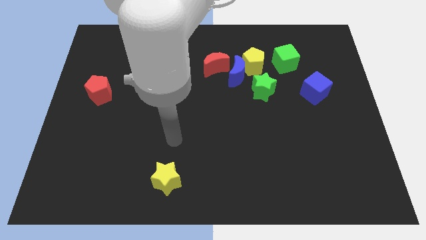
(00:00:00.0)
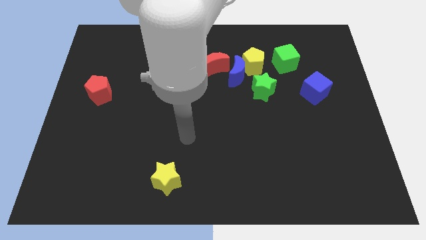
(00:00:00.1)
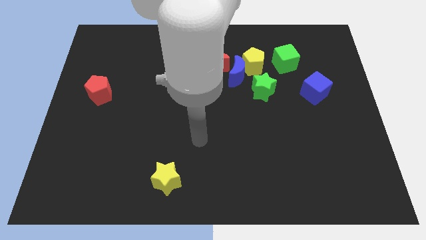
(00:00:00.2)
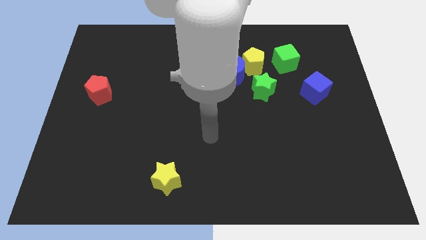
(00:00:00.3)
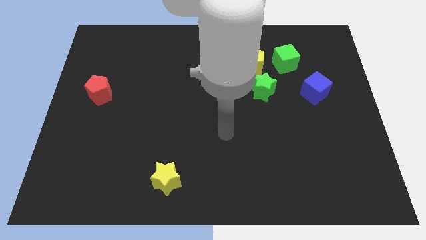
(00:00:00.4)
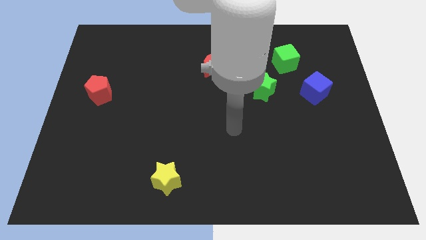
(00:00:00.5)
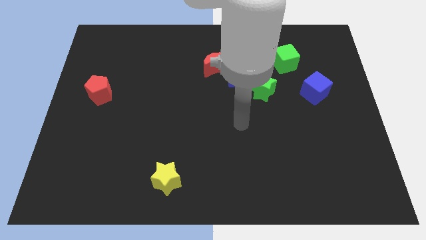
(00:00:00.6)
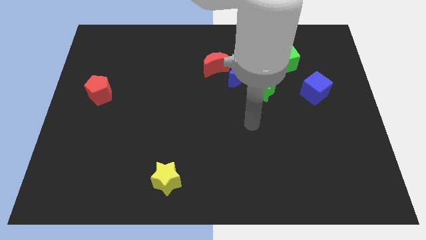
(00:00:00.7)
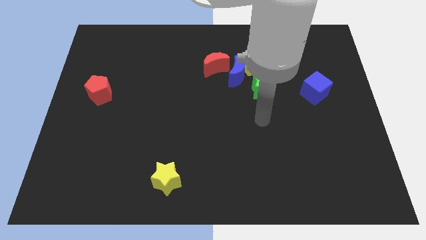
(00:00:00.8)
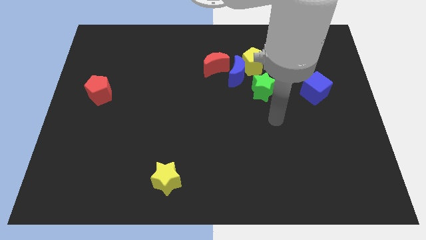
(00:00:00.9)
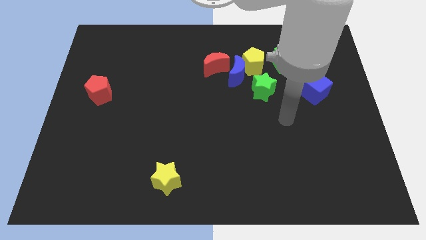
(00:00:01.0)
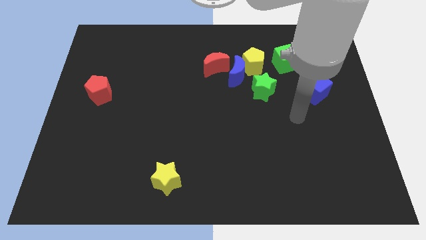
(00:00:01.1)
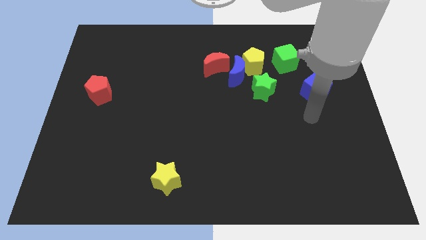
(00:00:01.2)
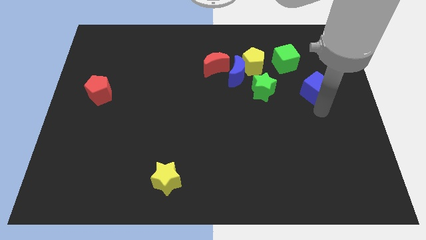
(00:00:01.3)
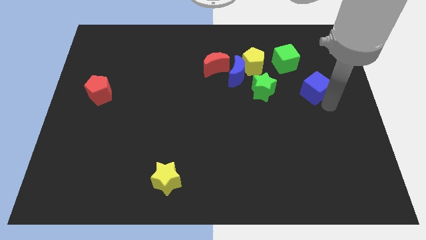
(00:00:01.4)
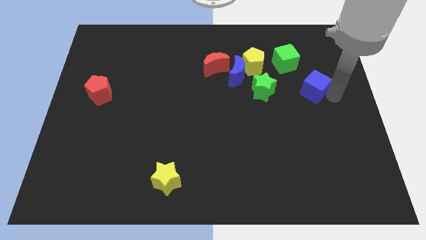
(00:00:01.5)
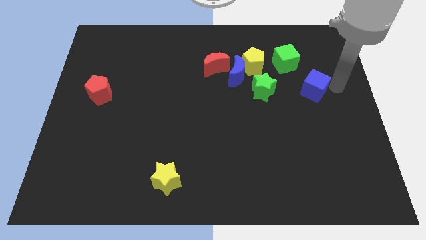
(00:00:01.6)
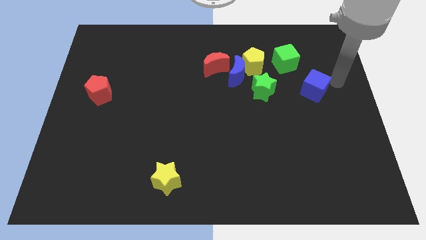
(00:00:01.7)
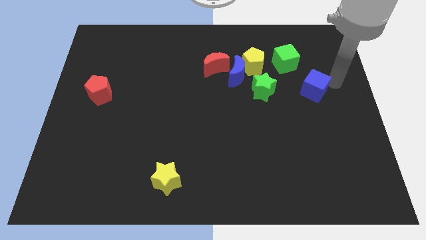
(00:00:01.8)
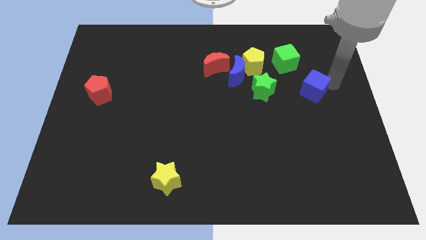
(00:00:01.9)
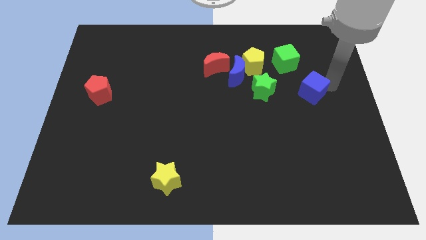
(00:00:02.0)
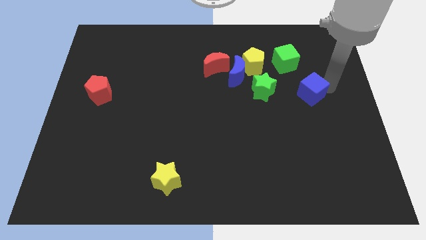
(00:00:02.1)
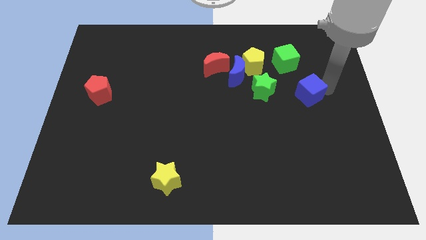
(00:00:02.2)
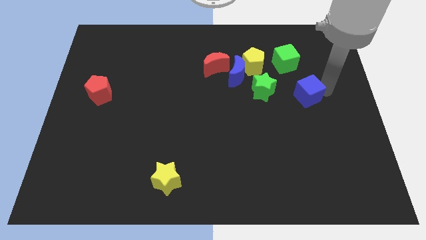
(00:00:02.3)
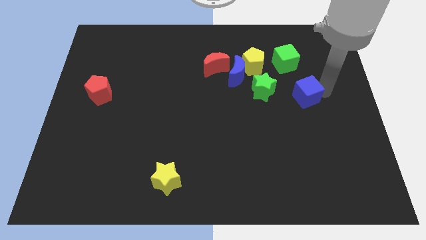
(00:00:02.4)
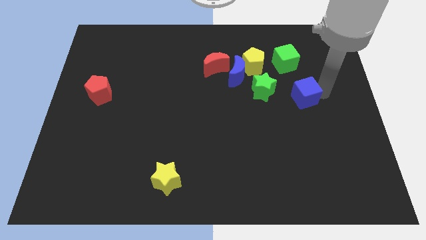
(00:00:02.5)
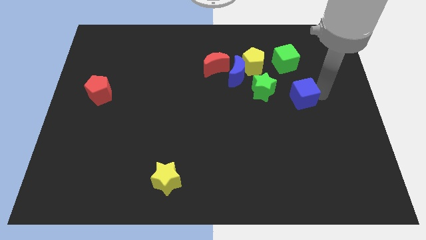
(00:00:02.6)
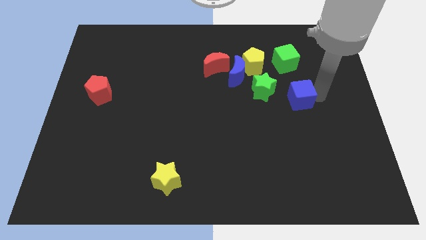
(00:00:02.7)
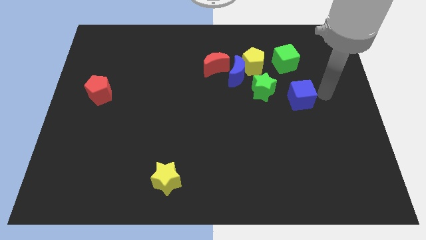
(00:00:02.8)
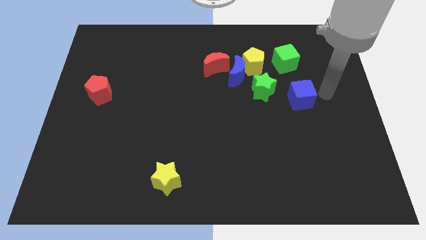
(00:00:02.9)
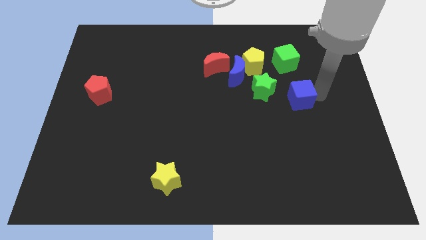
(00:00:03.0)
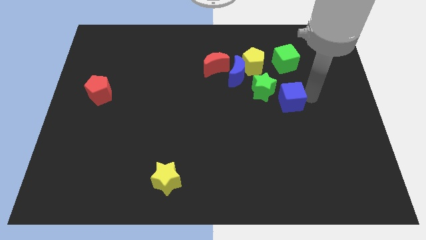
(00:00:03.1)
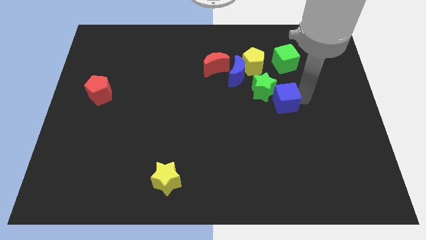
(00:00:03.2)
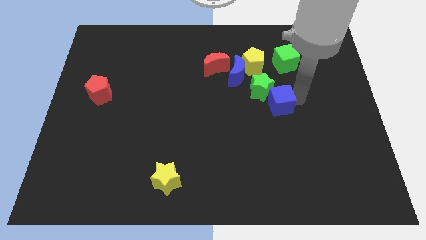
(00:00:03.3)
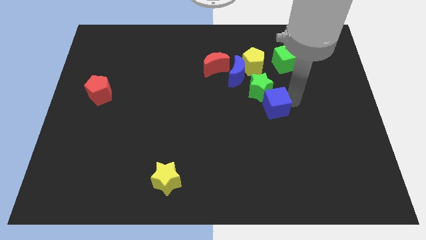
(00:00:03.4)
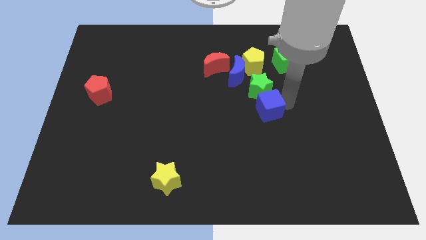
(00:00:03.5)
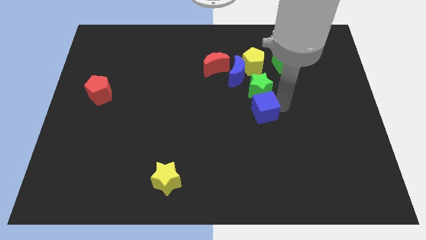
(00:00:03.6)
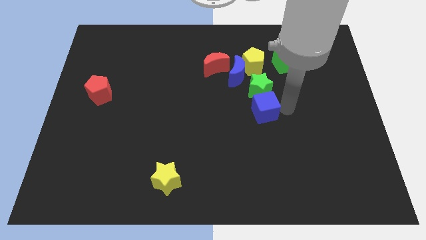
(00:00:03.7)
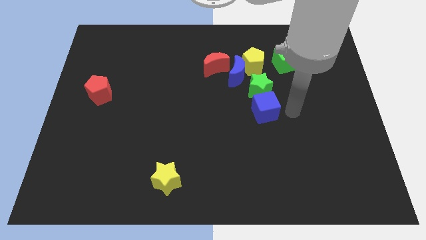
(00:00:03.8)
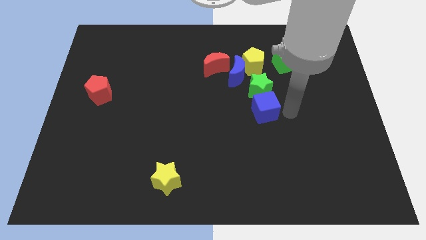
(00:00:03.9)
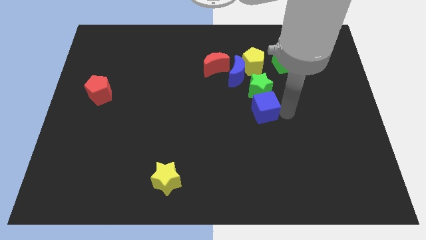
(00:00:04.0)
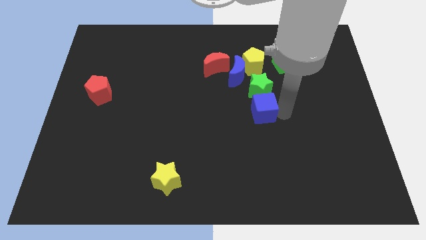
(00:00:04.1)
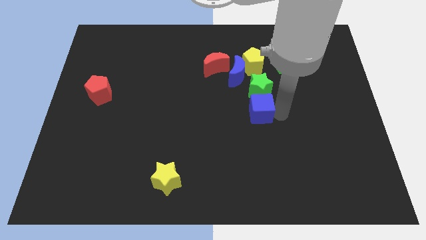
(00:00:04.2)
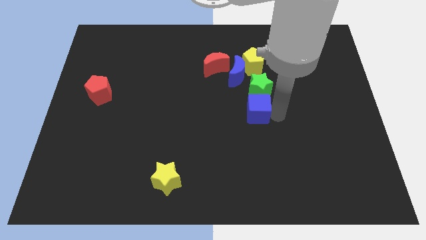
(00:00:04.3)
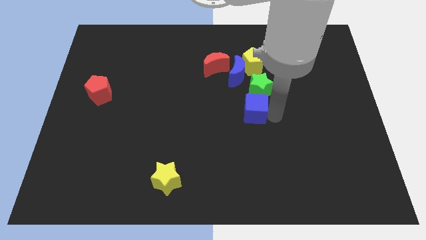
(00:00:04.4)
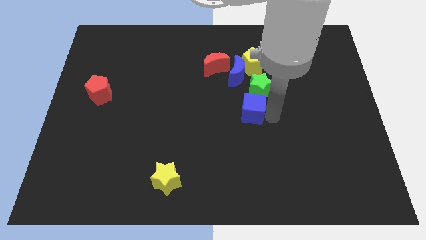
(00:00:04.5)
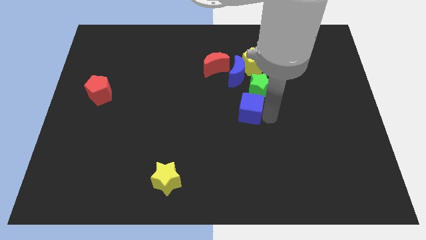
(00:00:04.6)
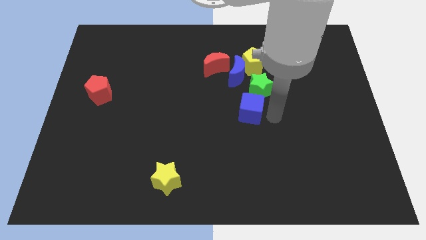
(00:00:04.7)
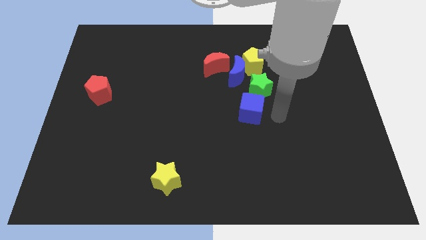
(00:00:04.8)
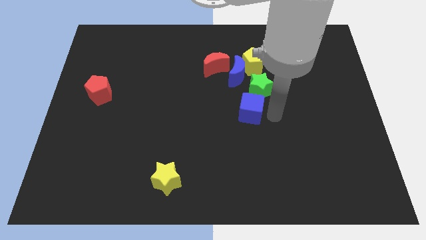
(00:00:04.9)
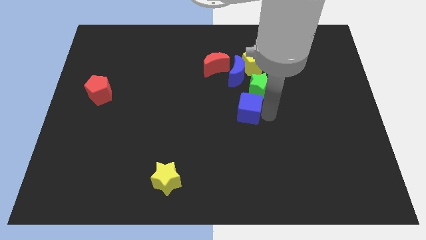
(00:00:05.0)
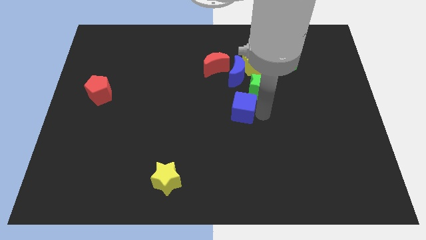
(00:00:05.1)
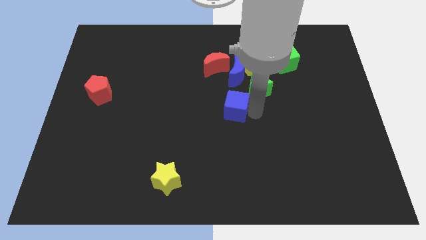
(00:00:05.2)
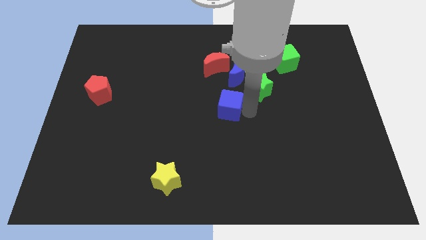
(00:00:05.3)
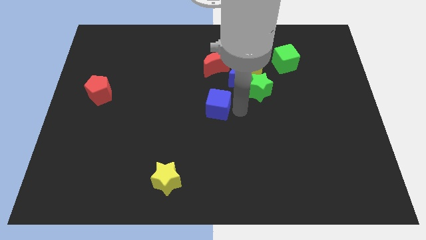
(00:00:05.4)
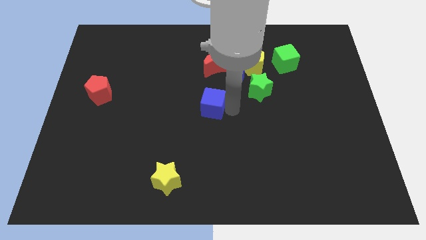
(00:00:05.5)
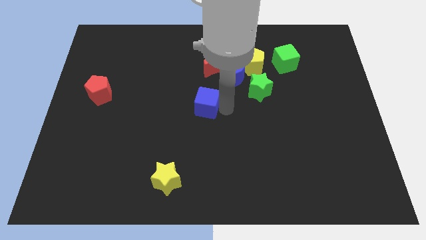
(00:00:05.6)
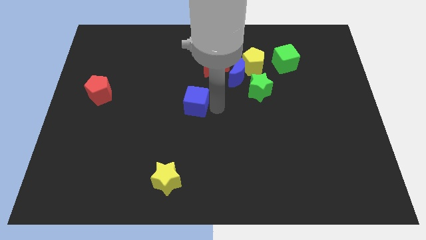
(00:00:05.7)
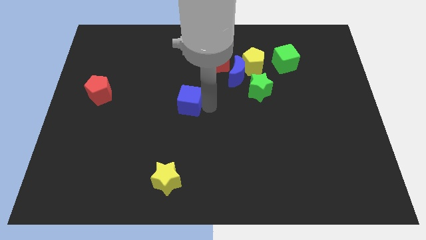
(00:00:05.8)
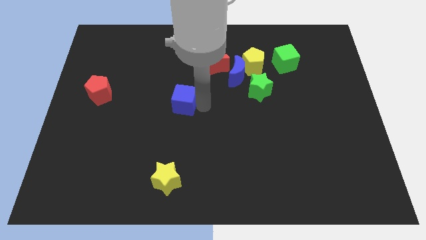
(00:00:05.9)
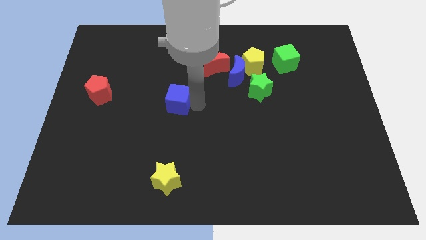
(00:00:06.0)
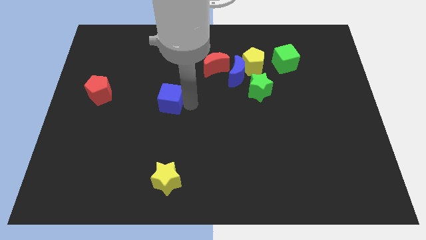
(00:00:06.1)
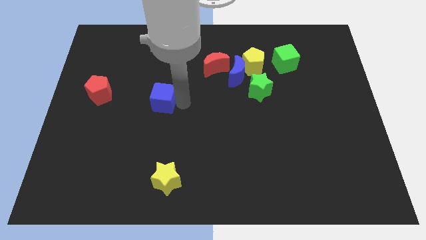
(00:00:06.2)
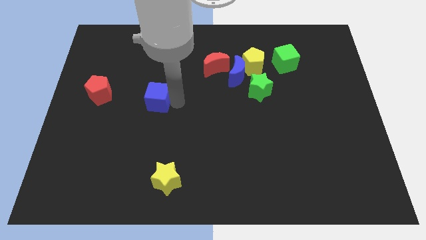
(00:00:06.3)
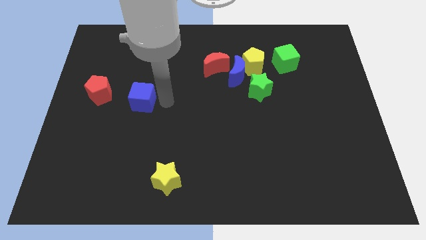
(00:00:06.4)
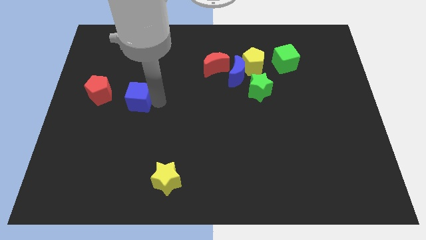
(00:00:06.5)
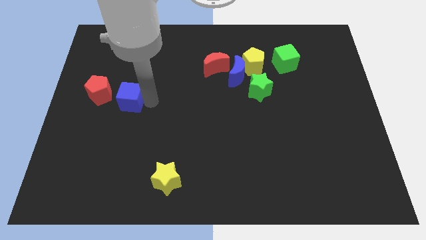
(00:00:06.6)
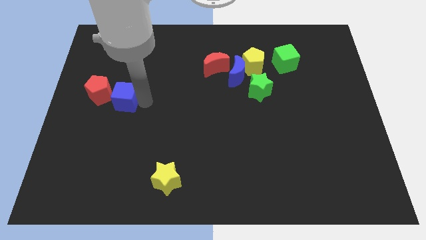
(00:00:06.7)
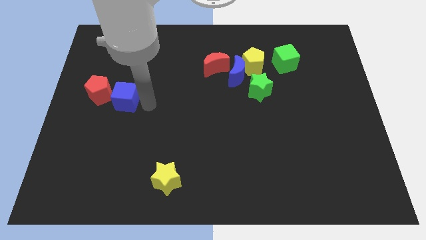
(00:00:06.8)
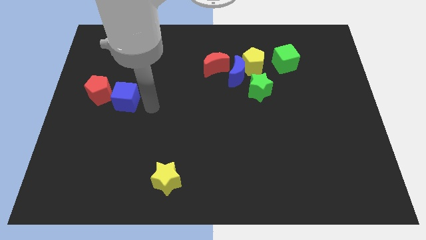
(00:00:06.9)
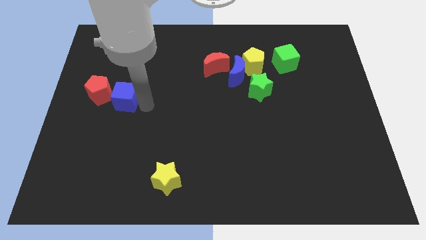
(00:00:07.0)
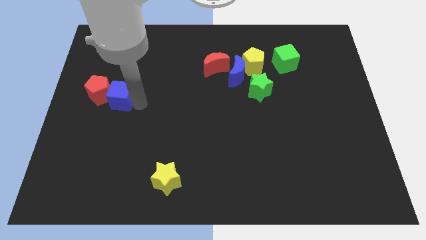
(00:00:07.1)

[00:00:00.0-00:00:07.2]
slide the blue cube next to the red pentagon
